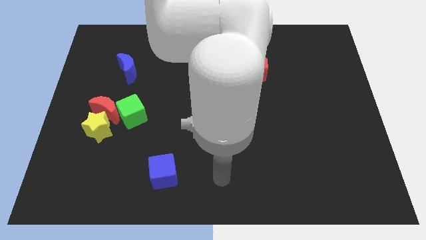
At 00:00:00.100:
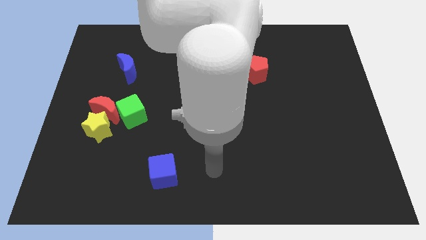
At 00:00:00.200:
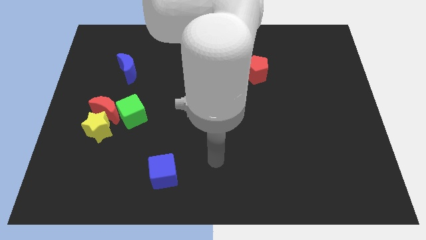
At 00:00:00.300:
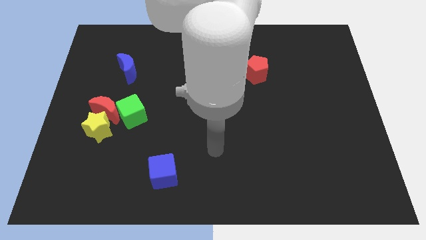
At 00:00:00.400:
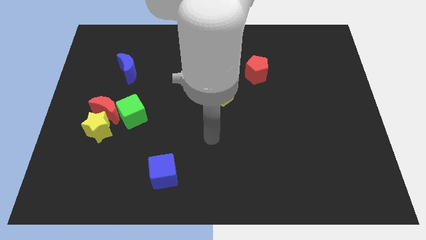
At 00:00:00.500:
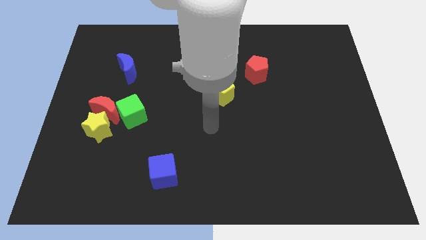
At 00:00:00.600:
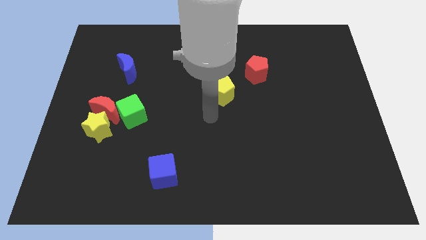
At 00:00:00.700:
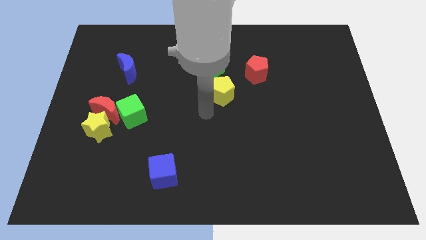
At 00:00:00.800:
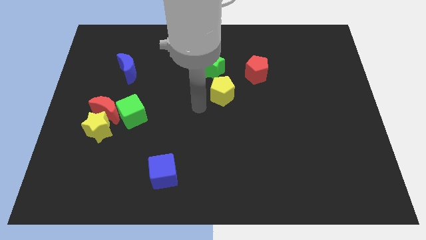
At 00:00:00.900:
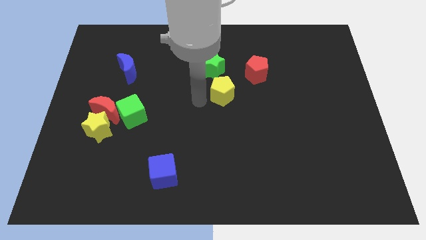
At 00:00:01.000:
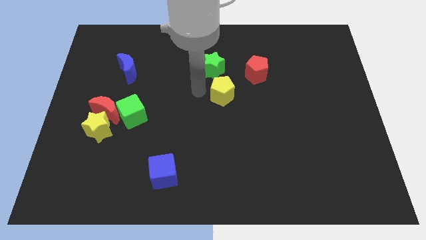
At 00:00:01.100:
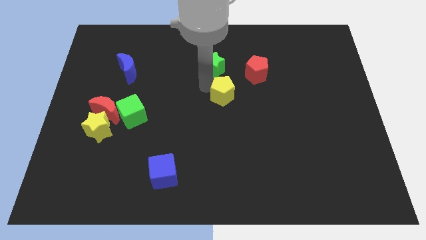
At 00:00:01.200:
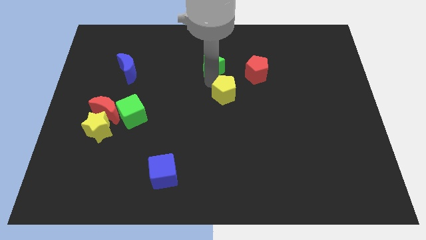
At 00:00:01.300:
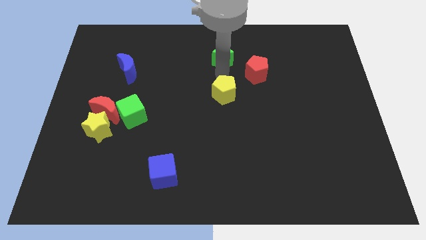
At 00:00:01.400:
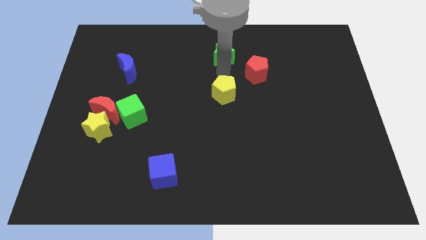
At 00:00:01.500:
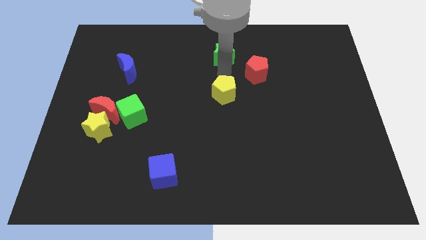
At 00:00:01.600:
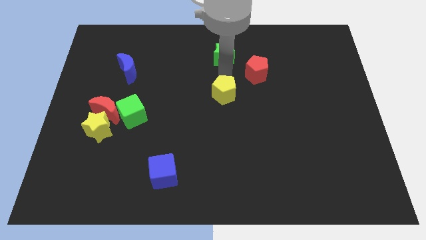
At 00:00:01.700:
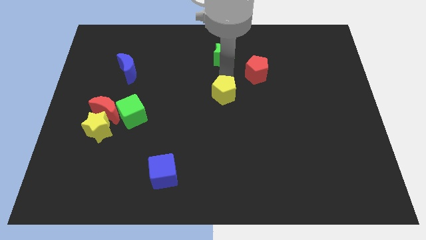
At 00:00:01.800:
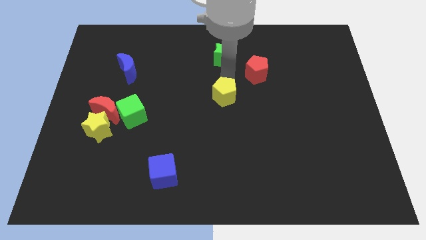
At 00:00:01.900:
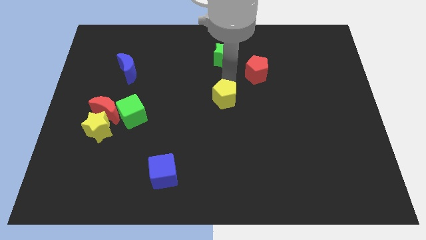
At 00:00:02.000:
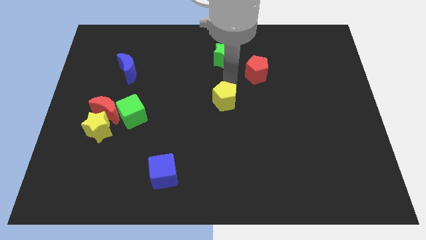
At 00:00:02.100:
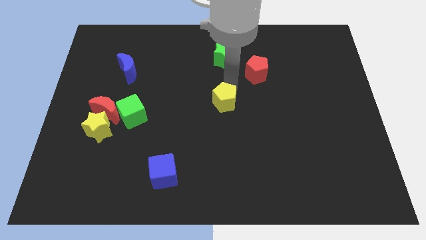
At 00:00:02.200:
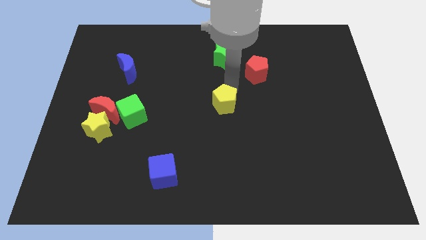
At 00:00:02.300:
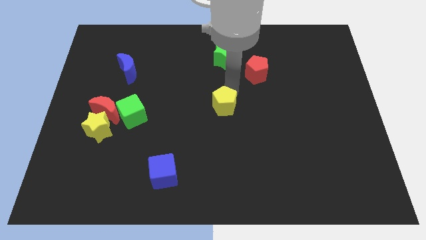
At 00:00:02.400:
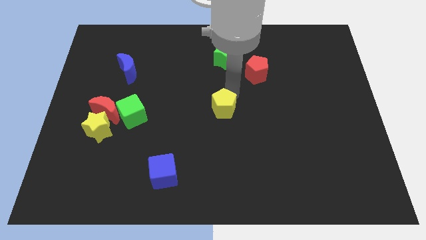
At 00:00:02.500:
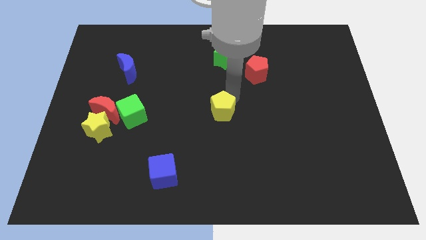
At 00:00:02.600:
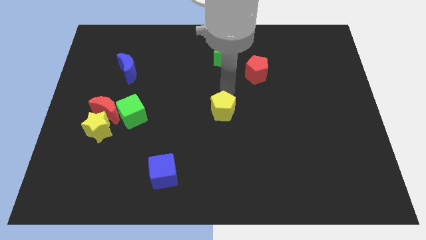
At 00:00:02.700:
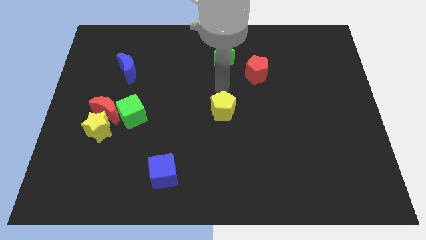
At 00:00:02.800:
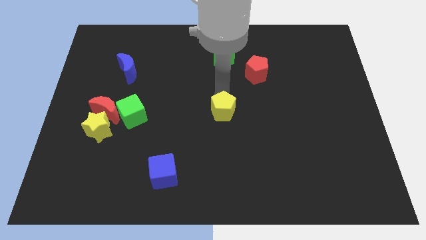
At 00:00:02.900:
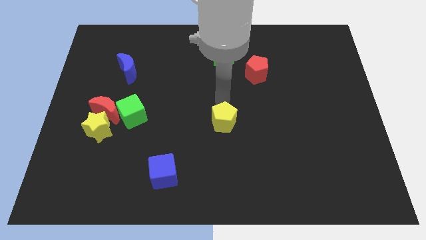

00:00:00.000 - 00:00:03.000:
push the yellow pentagon down a little

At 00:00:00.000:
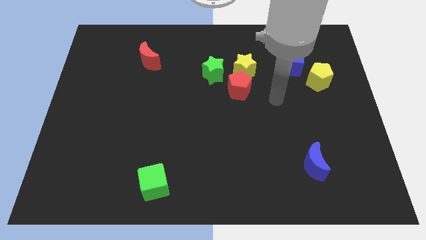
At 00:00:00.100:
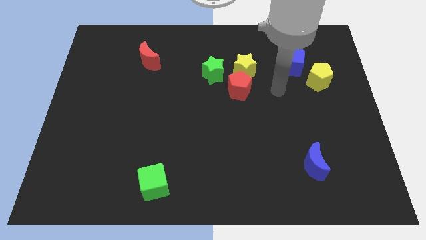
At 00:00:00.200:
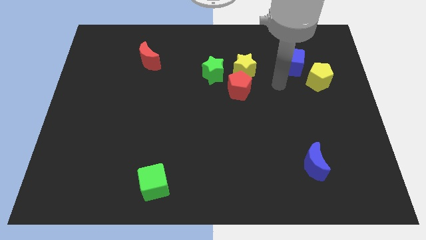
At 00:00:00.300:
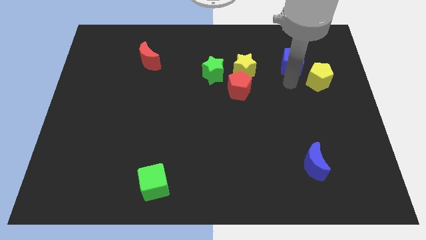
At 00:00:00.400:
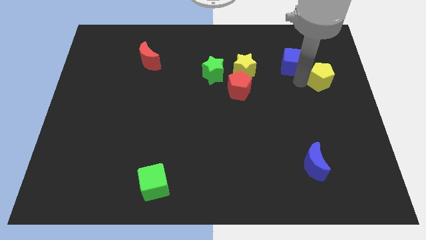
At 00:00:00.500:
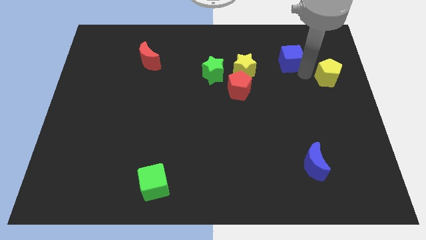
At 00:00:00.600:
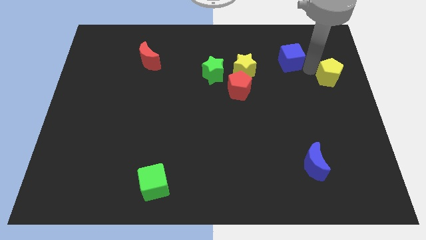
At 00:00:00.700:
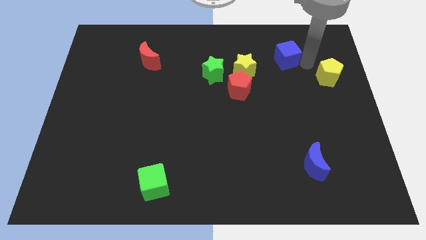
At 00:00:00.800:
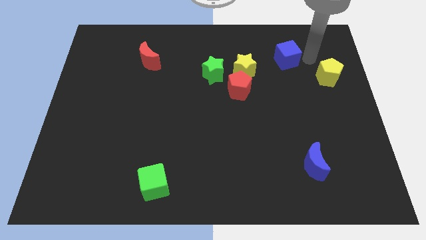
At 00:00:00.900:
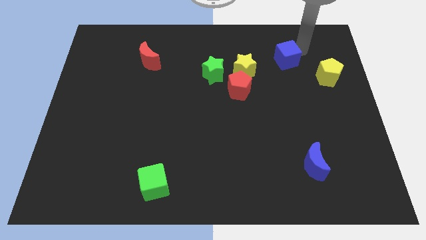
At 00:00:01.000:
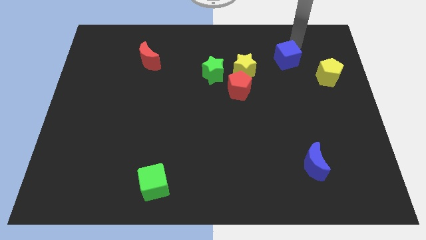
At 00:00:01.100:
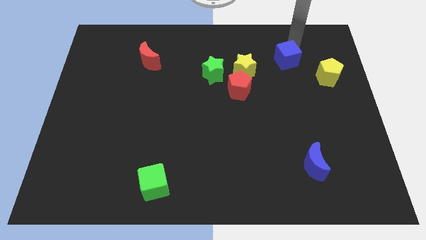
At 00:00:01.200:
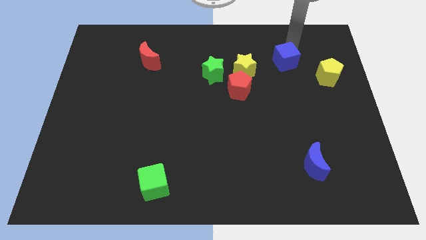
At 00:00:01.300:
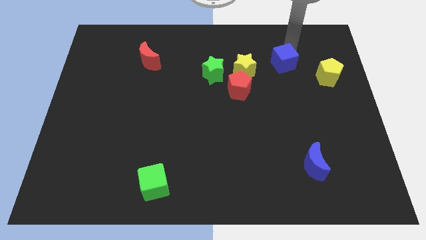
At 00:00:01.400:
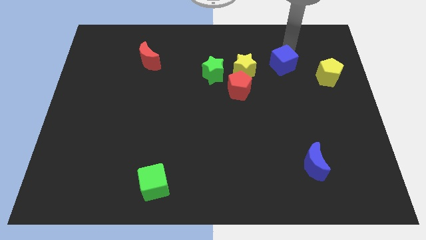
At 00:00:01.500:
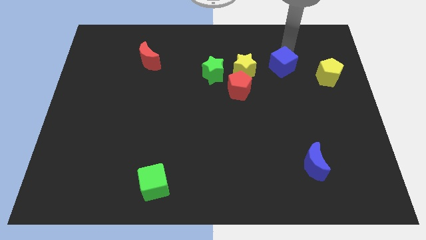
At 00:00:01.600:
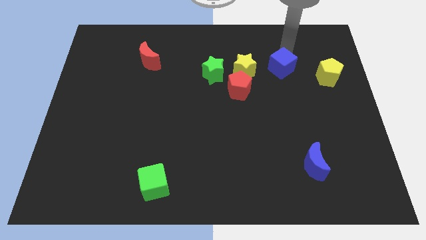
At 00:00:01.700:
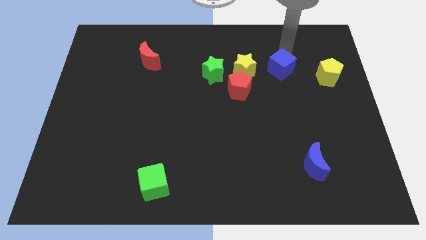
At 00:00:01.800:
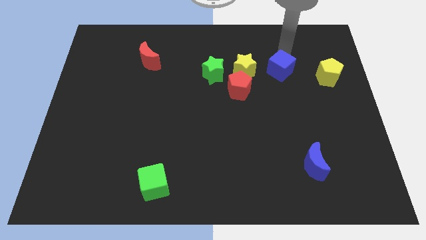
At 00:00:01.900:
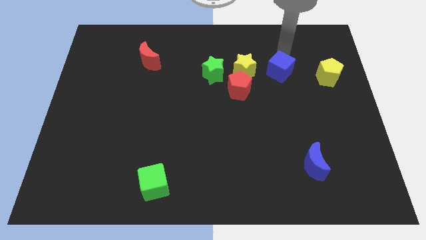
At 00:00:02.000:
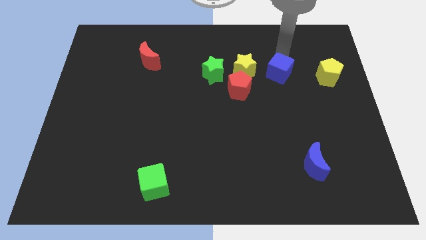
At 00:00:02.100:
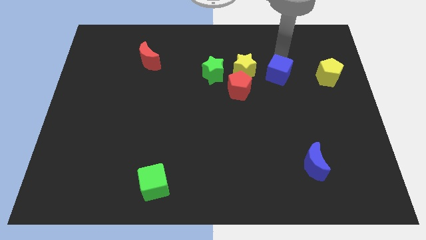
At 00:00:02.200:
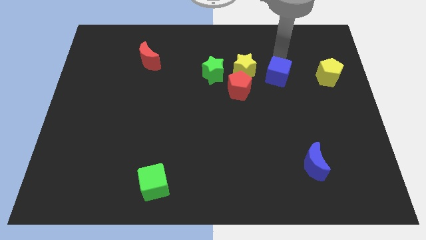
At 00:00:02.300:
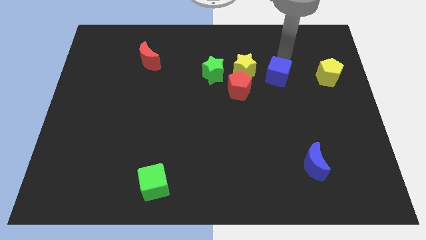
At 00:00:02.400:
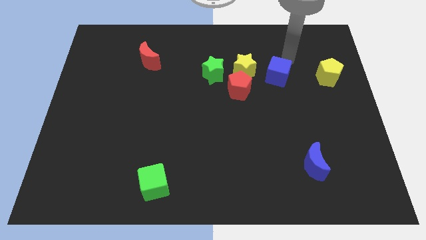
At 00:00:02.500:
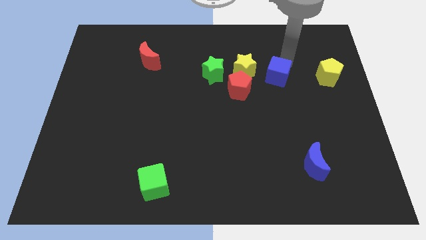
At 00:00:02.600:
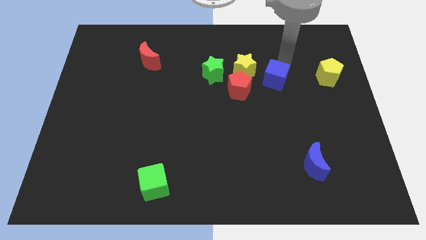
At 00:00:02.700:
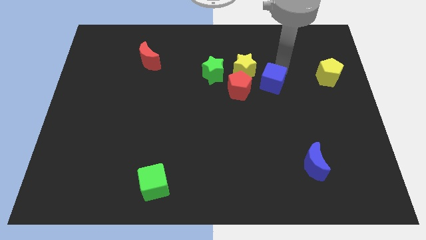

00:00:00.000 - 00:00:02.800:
slide the blue cube down and then left slightly

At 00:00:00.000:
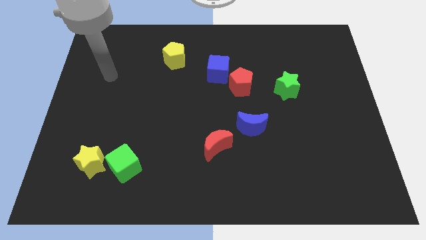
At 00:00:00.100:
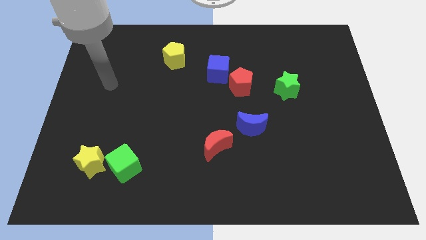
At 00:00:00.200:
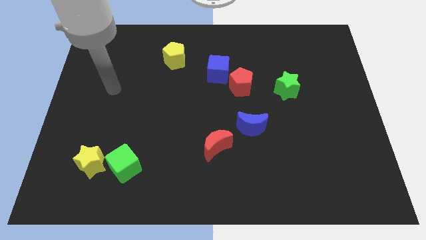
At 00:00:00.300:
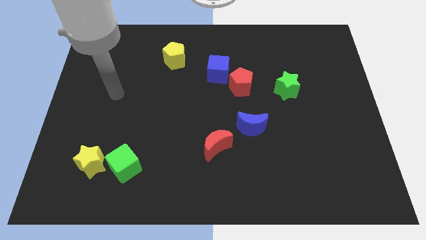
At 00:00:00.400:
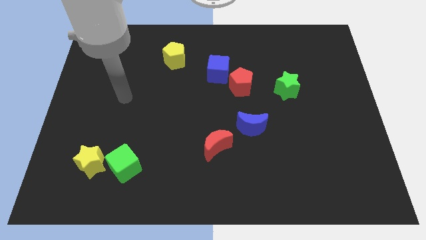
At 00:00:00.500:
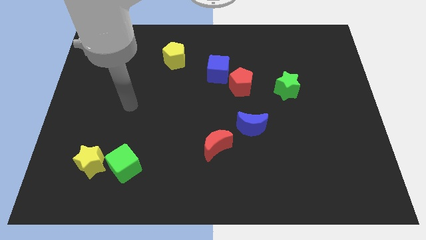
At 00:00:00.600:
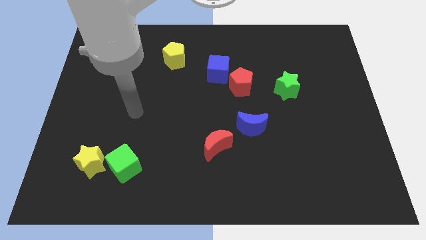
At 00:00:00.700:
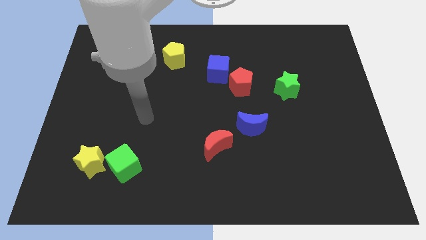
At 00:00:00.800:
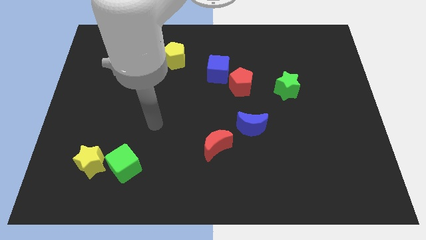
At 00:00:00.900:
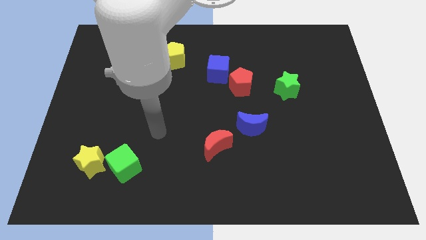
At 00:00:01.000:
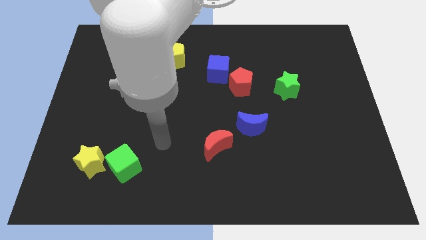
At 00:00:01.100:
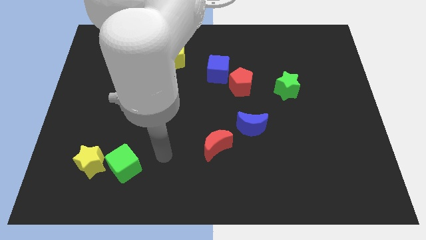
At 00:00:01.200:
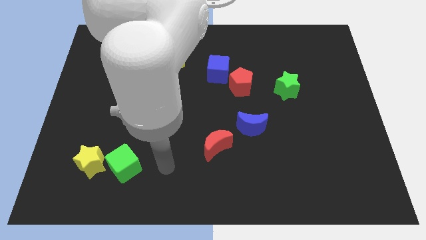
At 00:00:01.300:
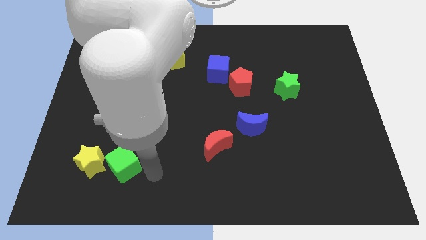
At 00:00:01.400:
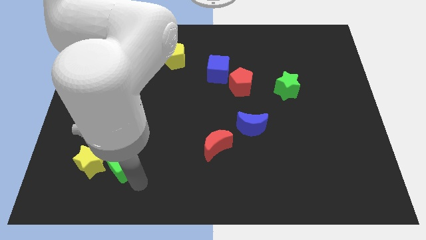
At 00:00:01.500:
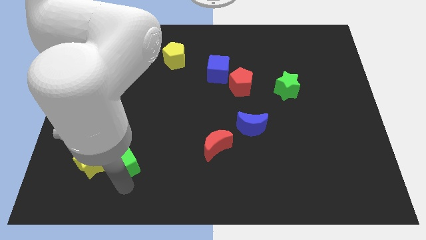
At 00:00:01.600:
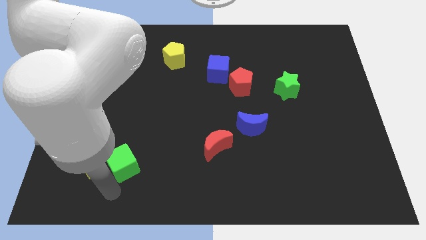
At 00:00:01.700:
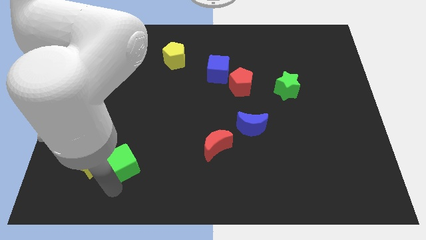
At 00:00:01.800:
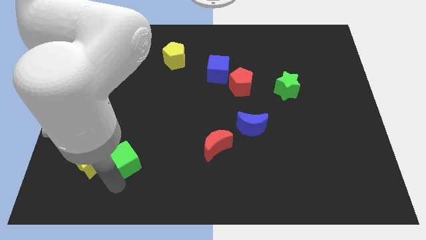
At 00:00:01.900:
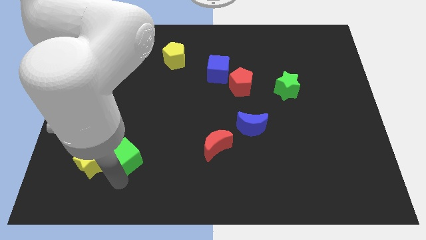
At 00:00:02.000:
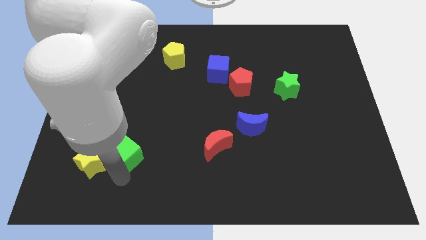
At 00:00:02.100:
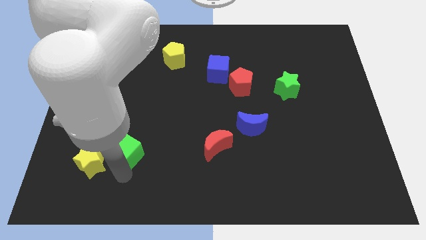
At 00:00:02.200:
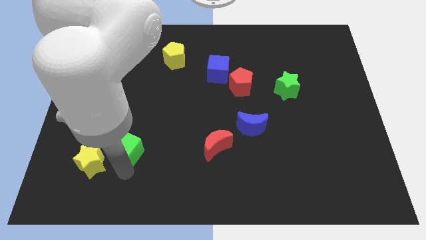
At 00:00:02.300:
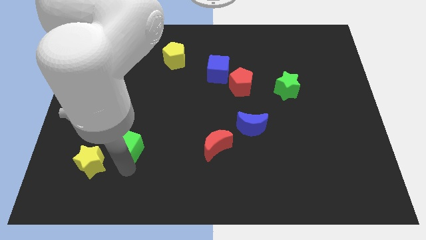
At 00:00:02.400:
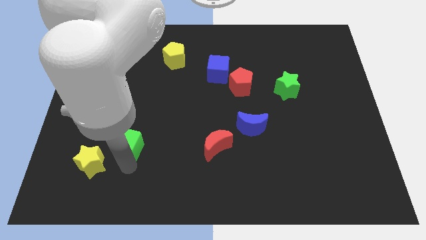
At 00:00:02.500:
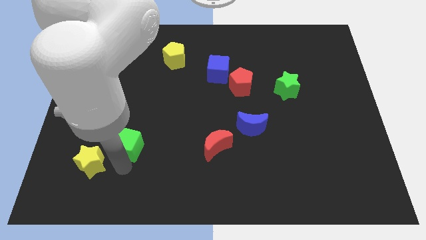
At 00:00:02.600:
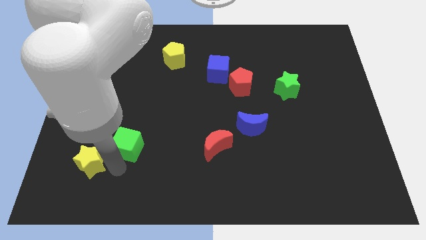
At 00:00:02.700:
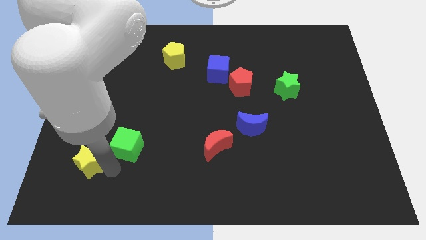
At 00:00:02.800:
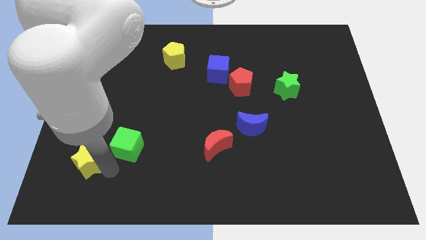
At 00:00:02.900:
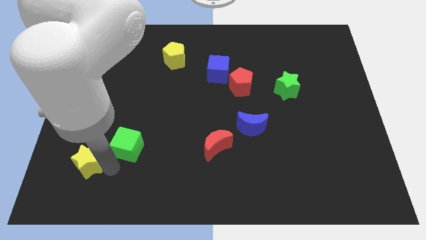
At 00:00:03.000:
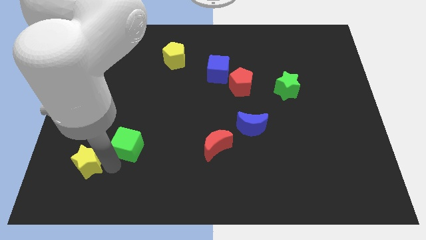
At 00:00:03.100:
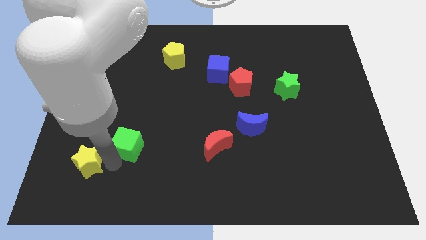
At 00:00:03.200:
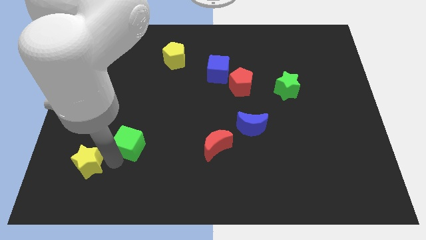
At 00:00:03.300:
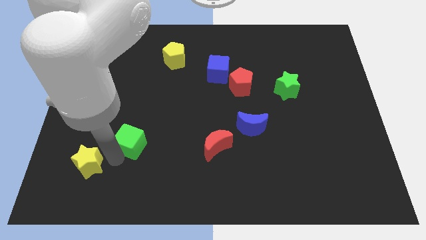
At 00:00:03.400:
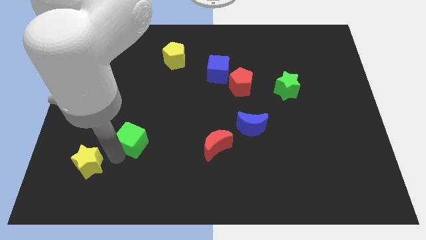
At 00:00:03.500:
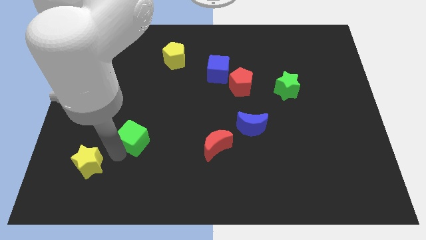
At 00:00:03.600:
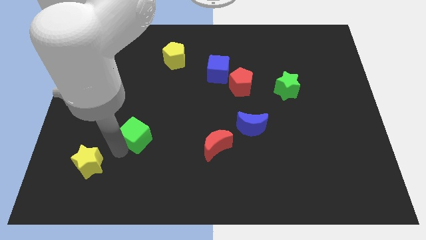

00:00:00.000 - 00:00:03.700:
slightly slide the green cube upwards
